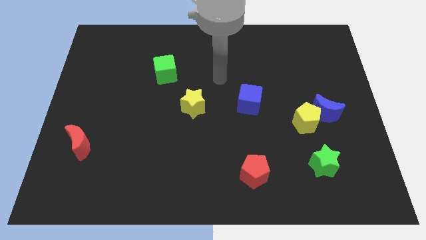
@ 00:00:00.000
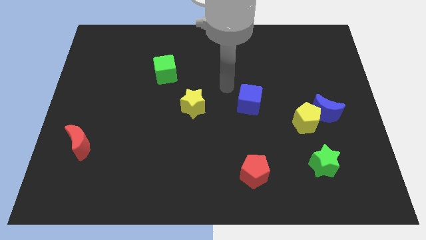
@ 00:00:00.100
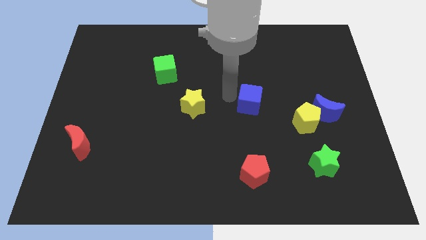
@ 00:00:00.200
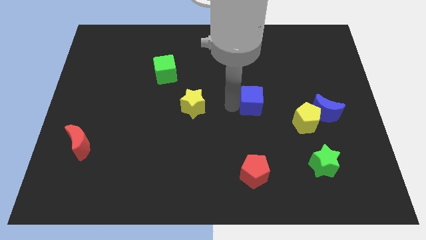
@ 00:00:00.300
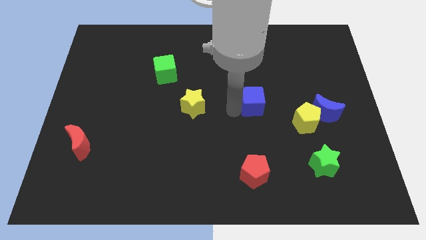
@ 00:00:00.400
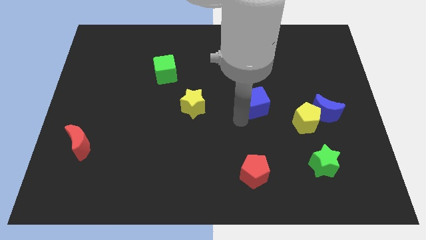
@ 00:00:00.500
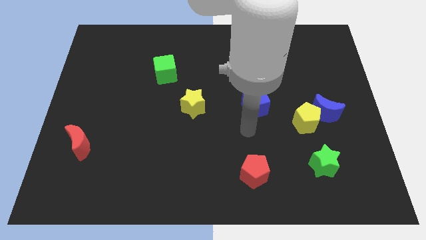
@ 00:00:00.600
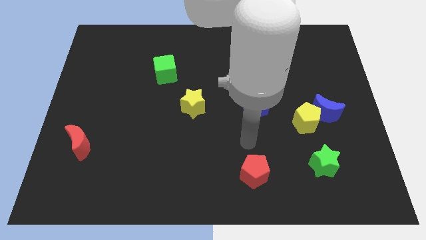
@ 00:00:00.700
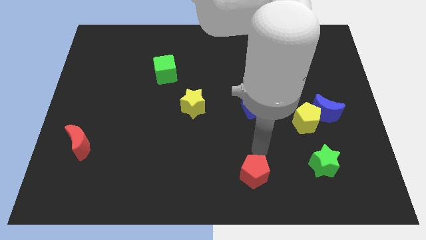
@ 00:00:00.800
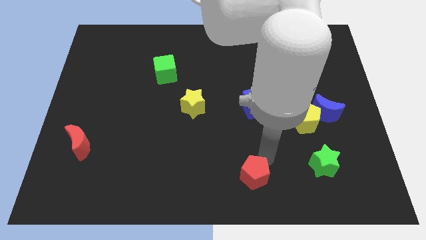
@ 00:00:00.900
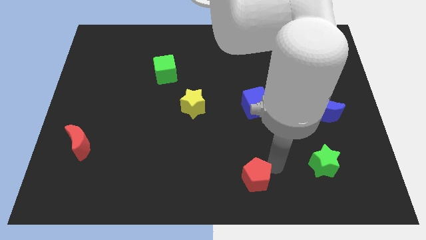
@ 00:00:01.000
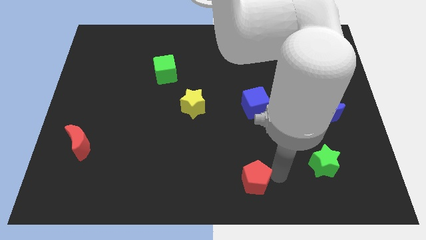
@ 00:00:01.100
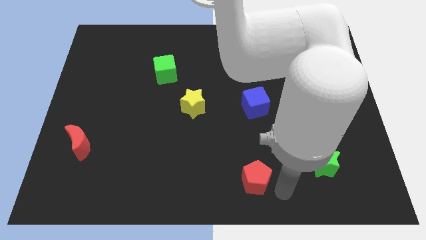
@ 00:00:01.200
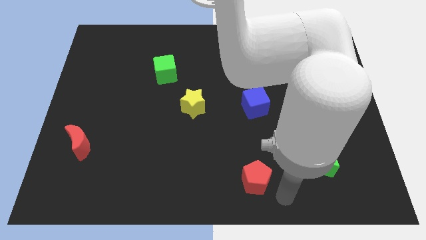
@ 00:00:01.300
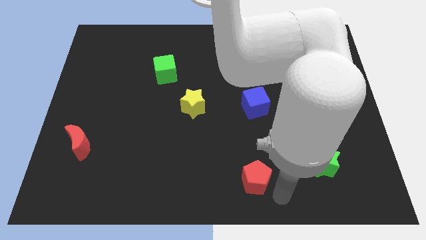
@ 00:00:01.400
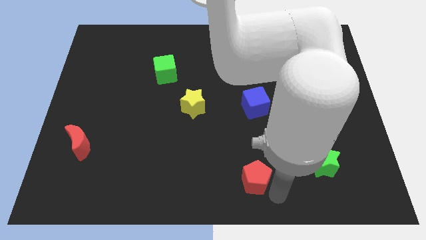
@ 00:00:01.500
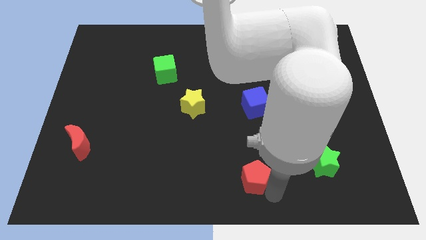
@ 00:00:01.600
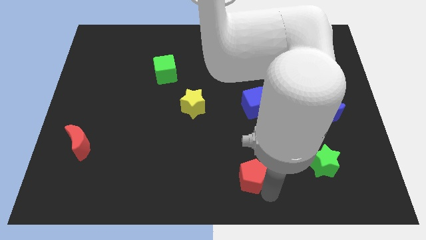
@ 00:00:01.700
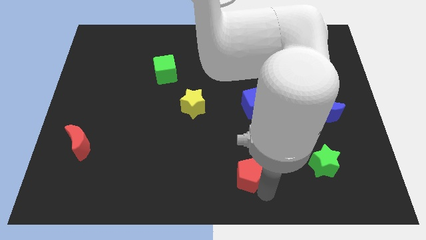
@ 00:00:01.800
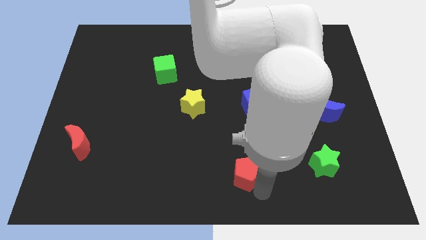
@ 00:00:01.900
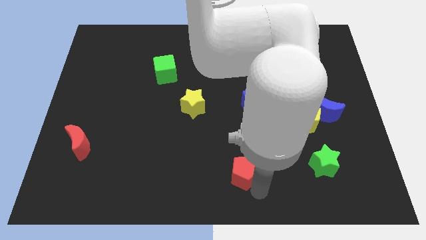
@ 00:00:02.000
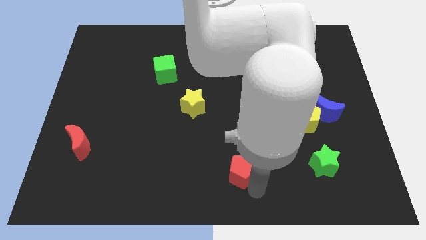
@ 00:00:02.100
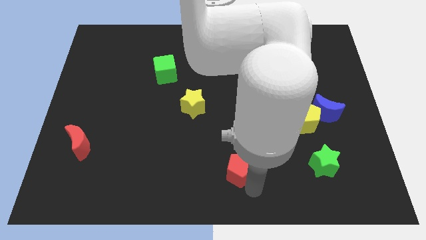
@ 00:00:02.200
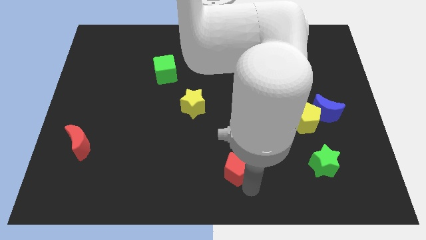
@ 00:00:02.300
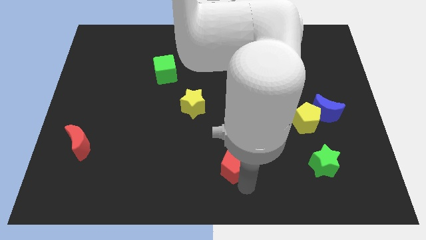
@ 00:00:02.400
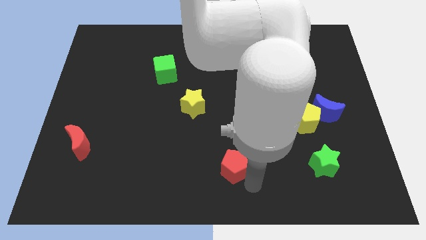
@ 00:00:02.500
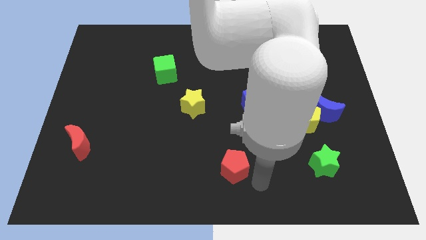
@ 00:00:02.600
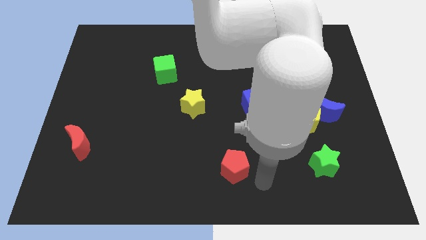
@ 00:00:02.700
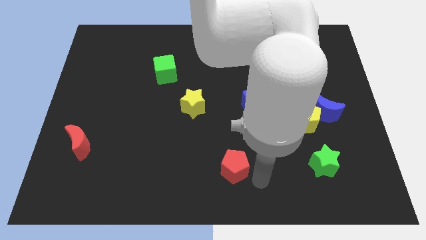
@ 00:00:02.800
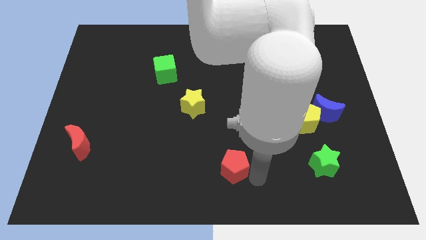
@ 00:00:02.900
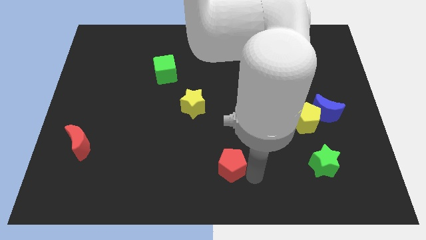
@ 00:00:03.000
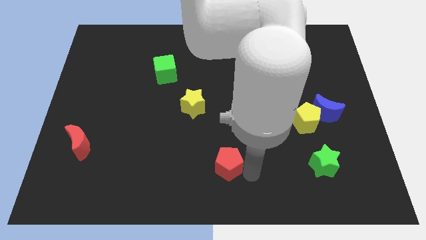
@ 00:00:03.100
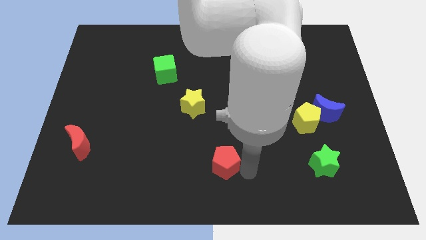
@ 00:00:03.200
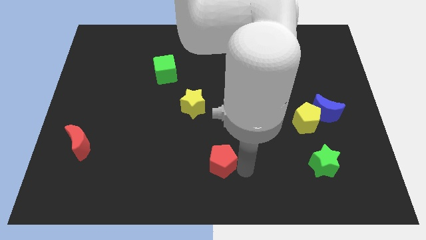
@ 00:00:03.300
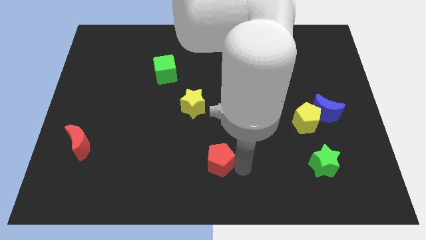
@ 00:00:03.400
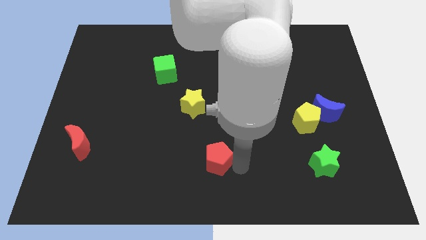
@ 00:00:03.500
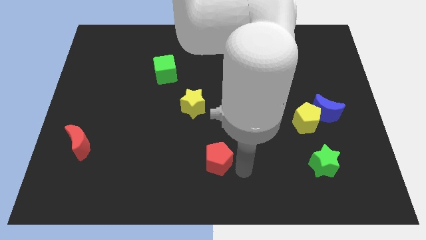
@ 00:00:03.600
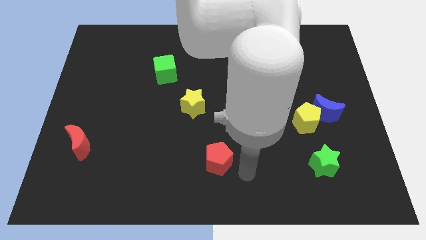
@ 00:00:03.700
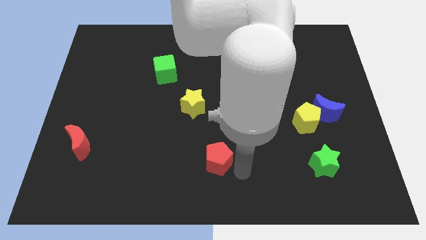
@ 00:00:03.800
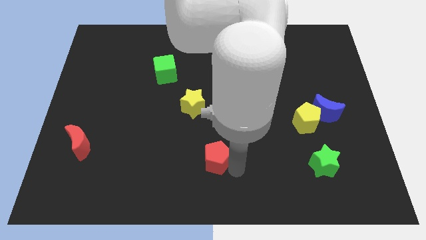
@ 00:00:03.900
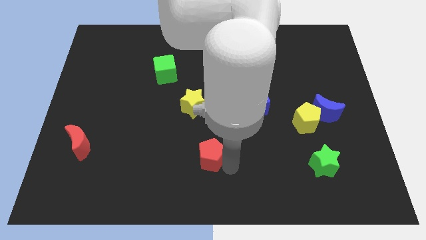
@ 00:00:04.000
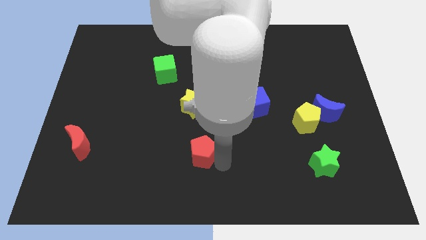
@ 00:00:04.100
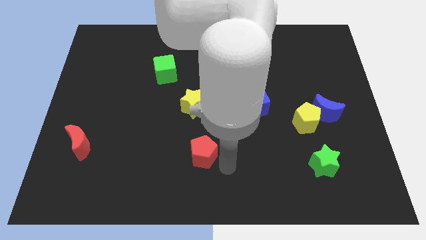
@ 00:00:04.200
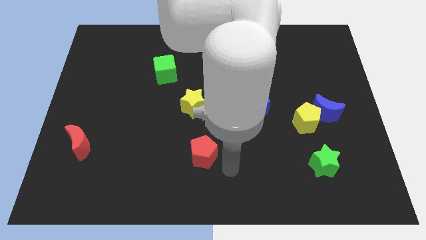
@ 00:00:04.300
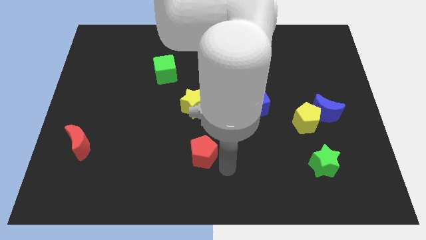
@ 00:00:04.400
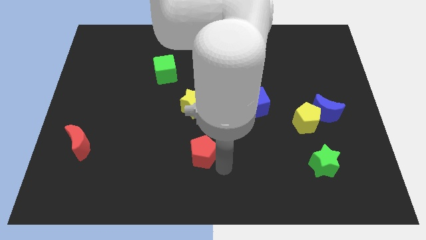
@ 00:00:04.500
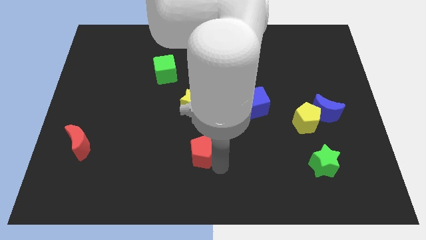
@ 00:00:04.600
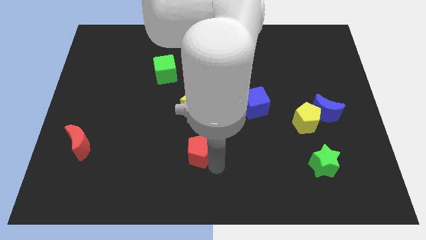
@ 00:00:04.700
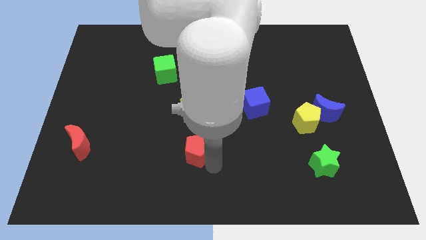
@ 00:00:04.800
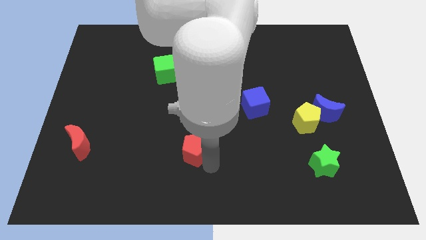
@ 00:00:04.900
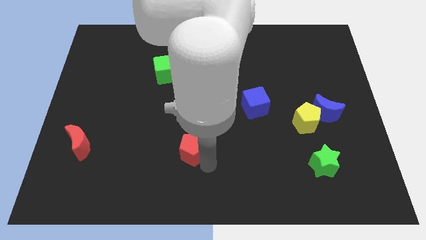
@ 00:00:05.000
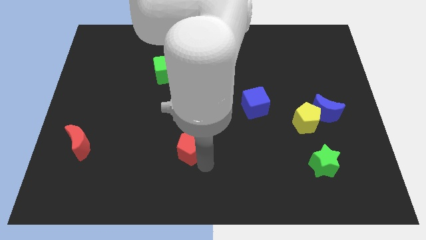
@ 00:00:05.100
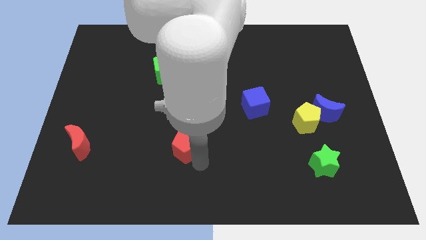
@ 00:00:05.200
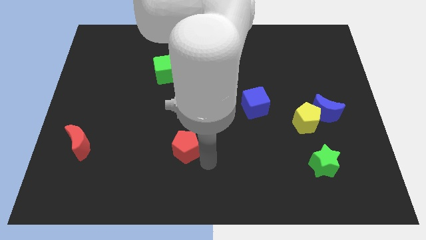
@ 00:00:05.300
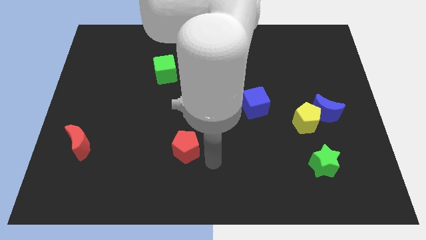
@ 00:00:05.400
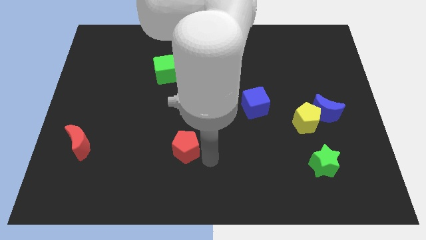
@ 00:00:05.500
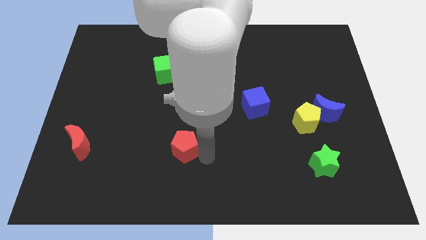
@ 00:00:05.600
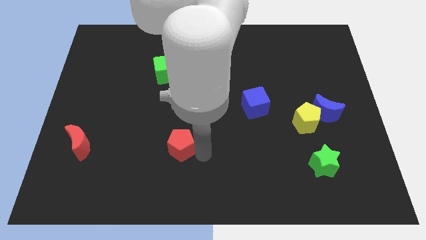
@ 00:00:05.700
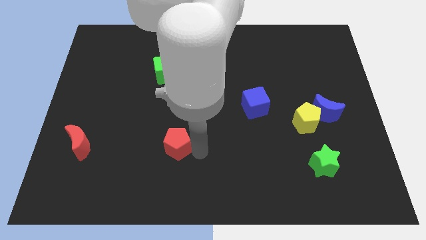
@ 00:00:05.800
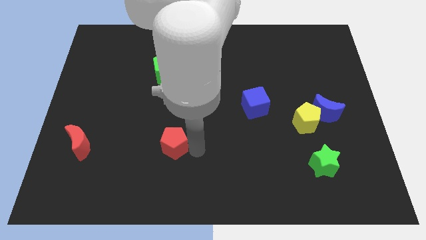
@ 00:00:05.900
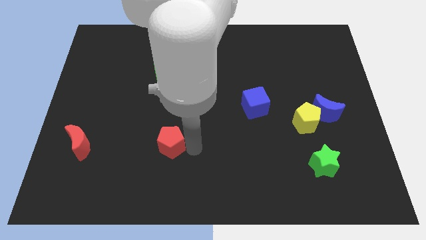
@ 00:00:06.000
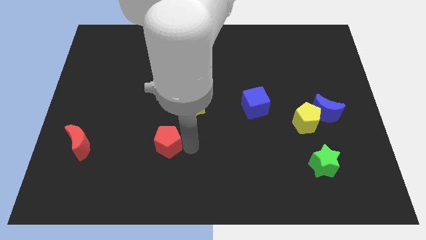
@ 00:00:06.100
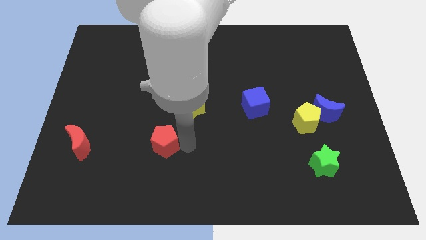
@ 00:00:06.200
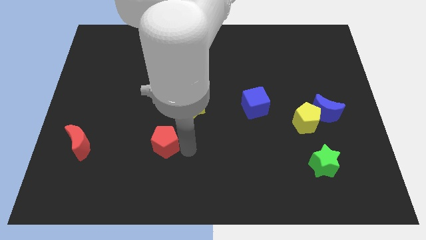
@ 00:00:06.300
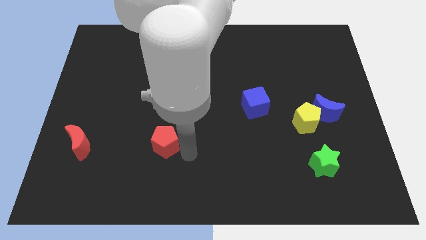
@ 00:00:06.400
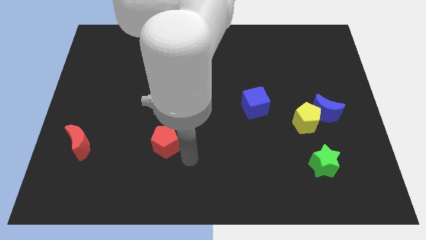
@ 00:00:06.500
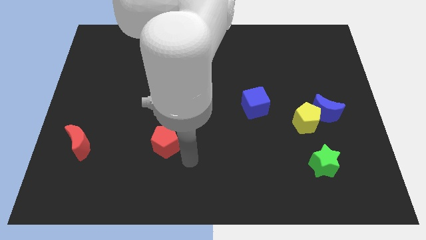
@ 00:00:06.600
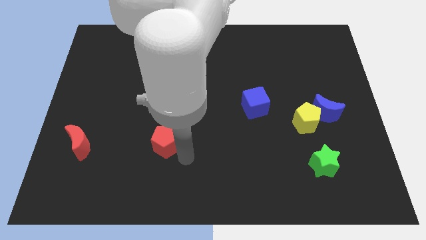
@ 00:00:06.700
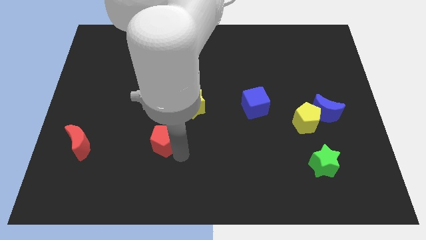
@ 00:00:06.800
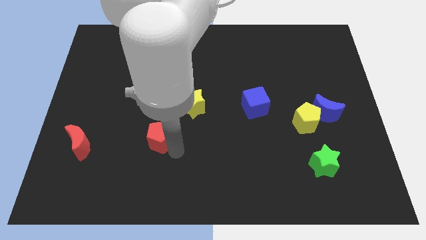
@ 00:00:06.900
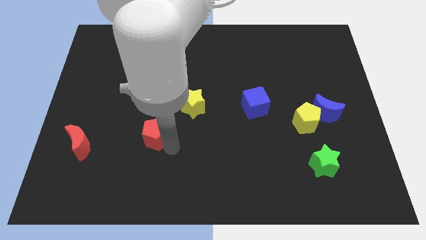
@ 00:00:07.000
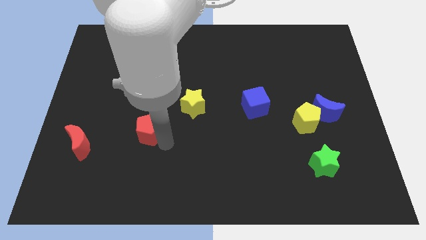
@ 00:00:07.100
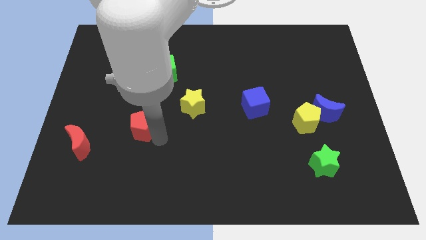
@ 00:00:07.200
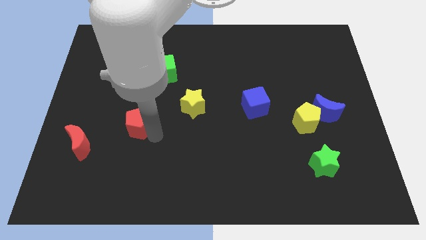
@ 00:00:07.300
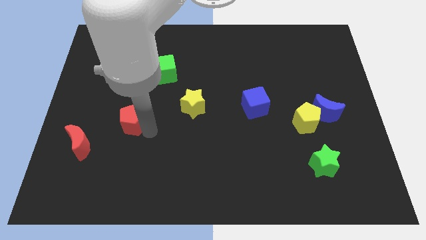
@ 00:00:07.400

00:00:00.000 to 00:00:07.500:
move the red pentagon to the top right side of the red moon
